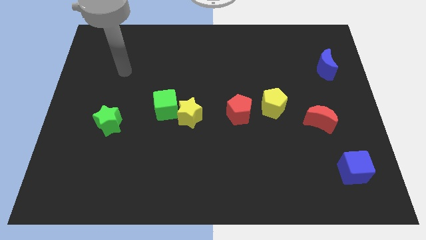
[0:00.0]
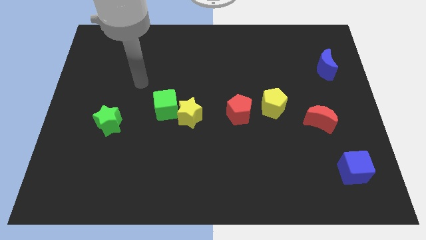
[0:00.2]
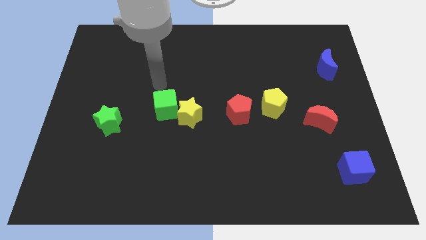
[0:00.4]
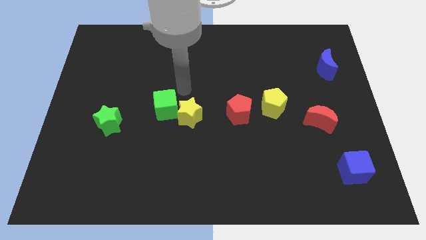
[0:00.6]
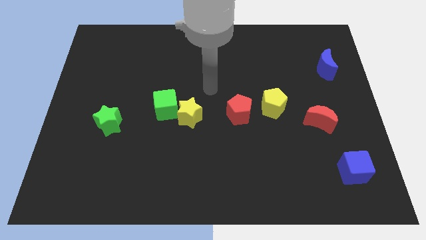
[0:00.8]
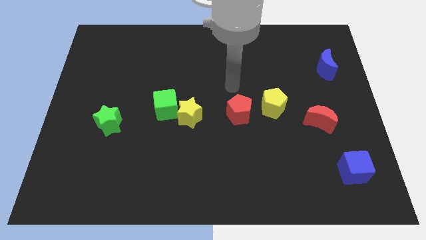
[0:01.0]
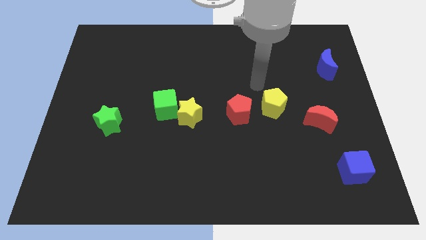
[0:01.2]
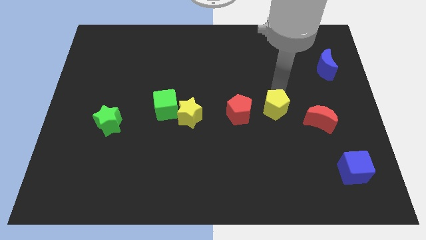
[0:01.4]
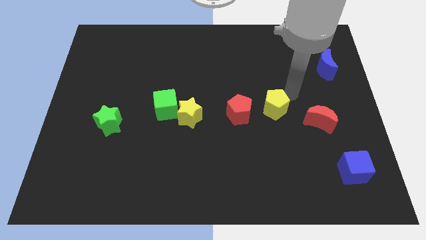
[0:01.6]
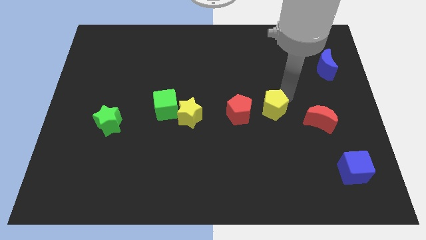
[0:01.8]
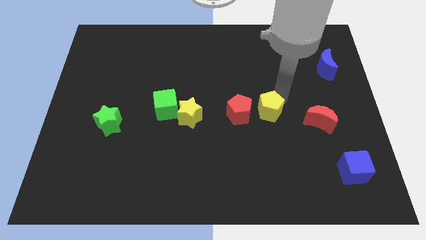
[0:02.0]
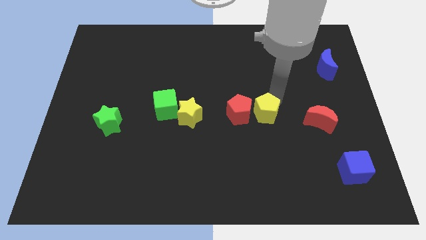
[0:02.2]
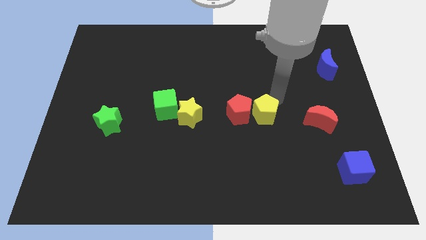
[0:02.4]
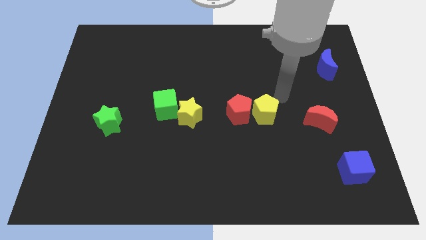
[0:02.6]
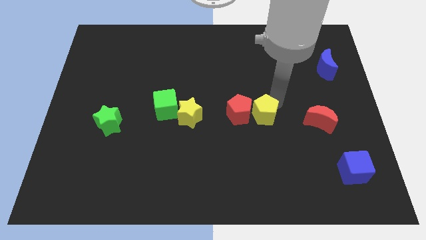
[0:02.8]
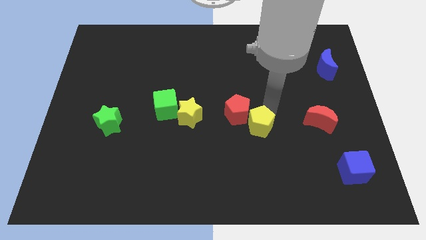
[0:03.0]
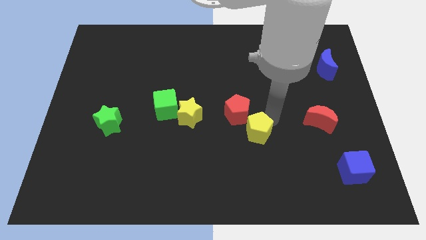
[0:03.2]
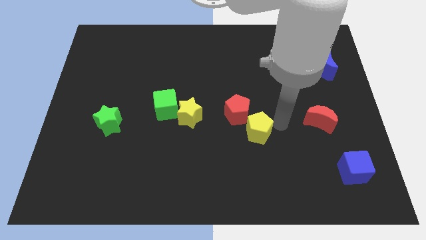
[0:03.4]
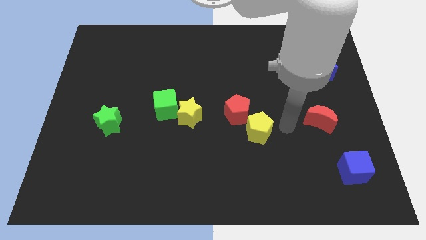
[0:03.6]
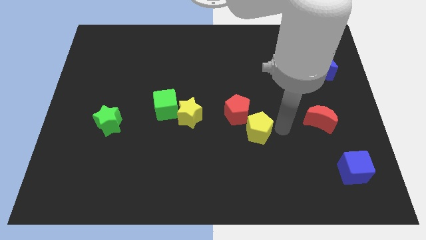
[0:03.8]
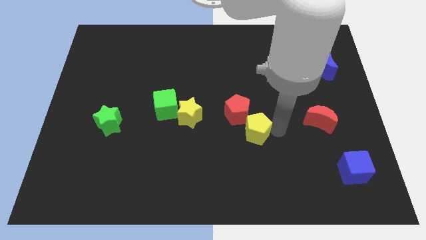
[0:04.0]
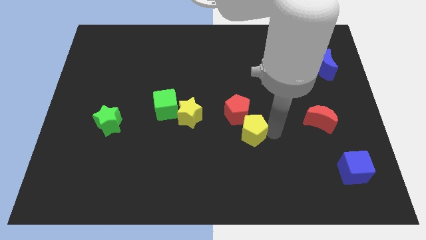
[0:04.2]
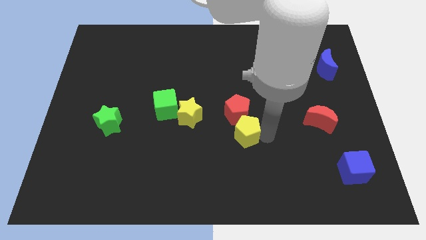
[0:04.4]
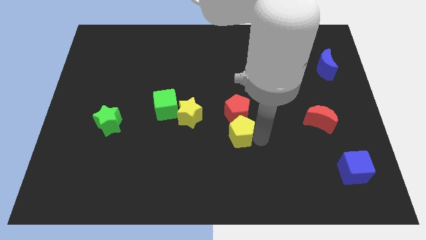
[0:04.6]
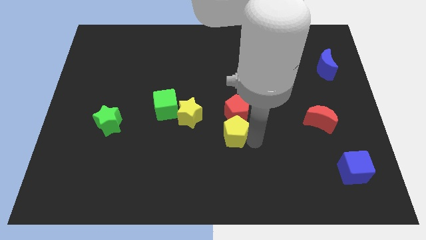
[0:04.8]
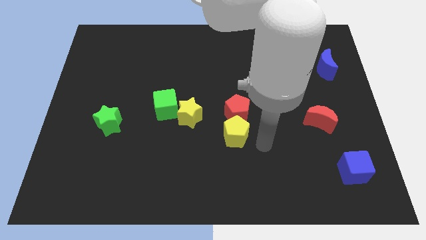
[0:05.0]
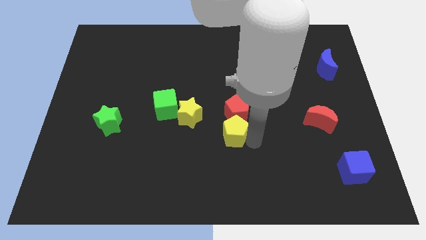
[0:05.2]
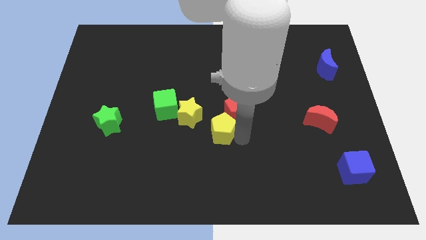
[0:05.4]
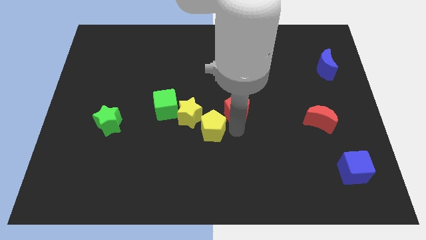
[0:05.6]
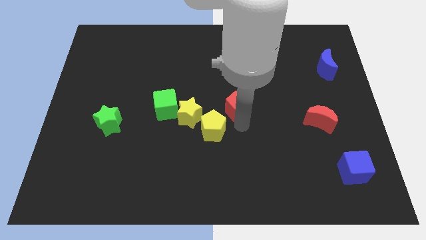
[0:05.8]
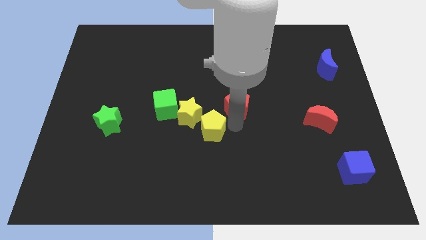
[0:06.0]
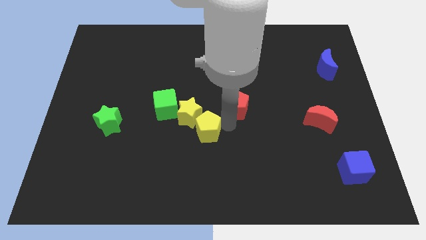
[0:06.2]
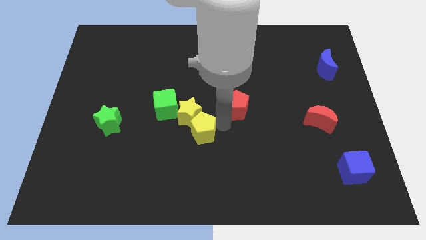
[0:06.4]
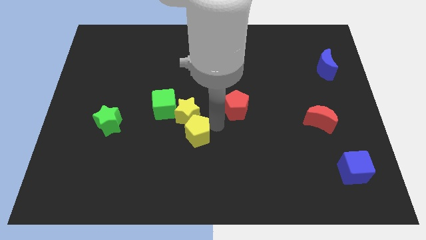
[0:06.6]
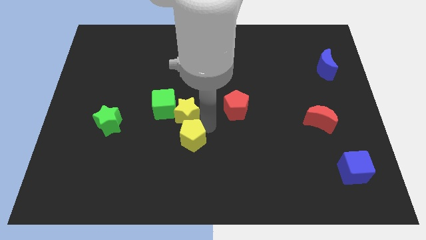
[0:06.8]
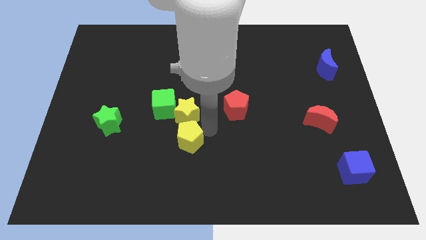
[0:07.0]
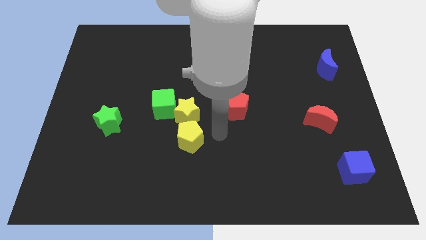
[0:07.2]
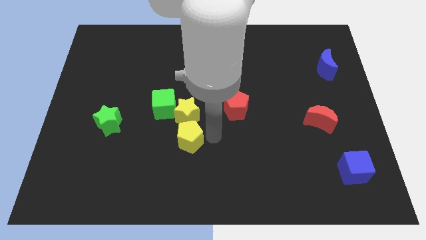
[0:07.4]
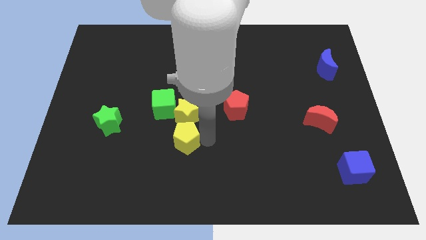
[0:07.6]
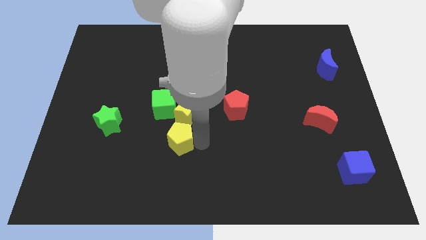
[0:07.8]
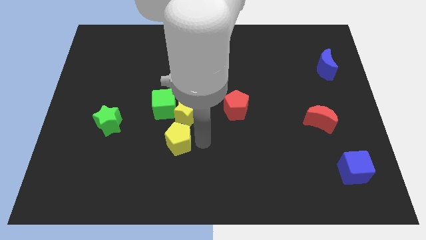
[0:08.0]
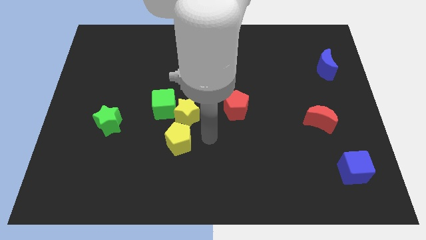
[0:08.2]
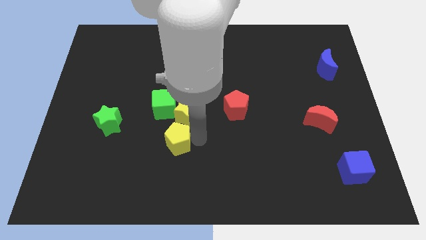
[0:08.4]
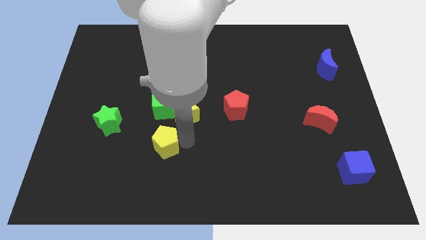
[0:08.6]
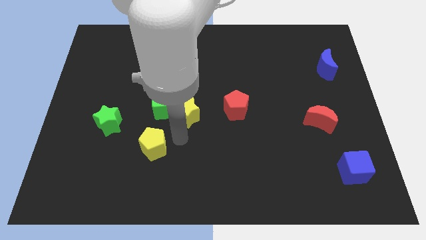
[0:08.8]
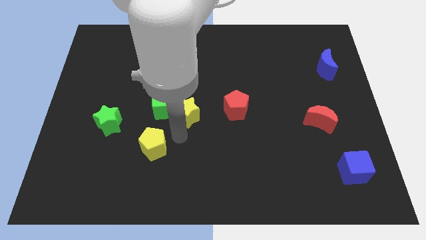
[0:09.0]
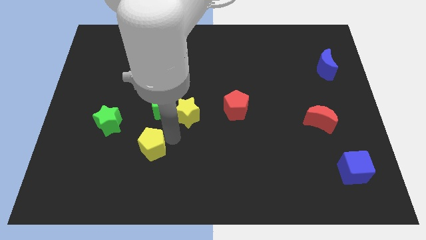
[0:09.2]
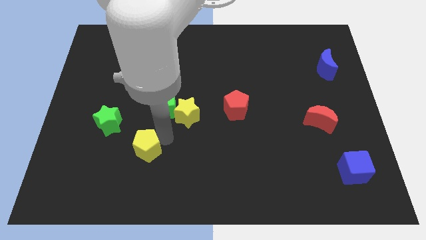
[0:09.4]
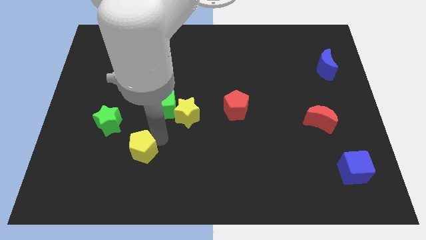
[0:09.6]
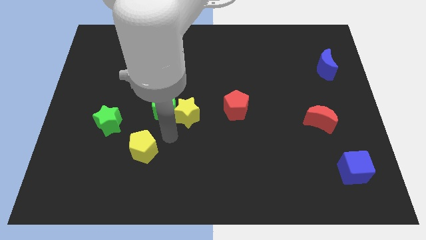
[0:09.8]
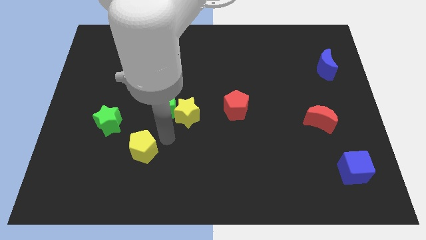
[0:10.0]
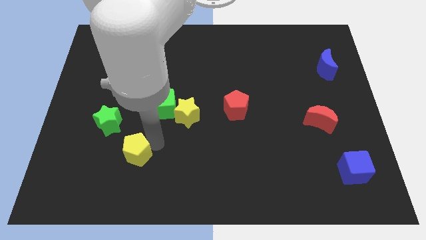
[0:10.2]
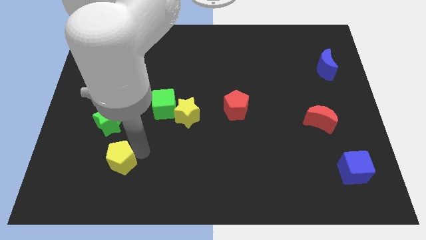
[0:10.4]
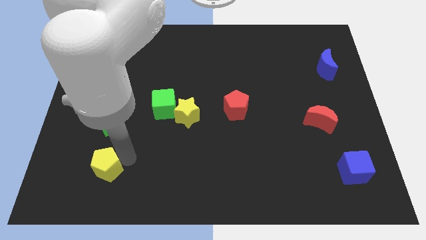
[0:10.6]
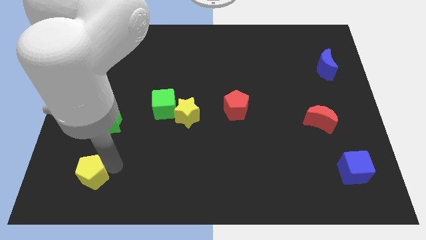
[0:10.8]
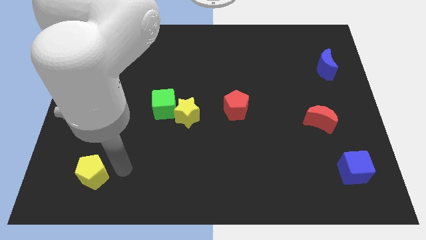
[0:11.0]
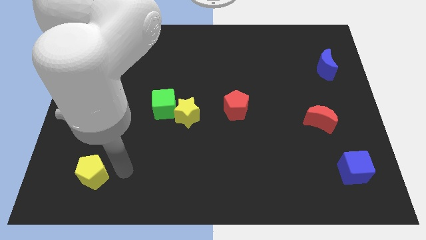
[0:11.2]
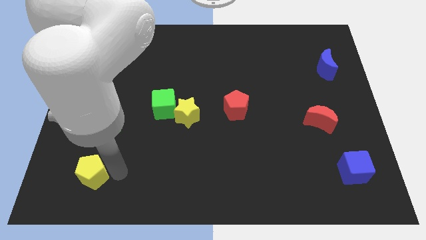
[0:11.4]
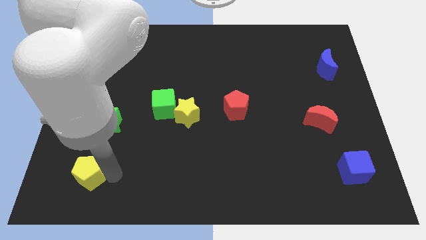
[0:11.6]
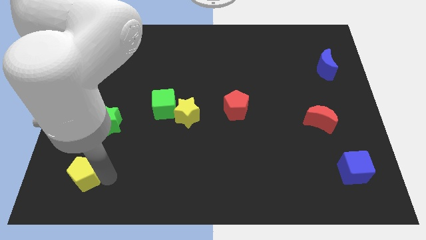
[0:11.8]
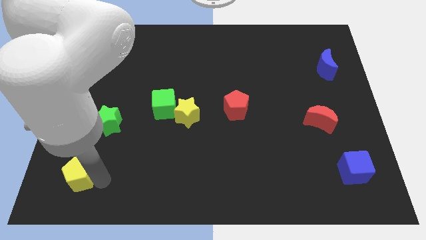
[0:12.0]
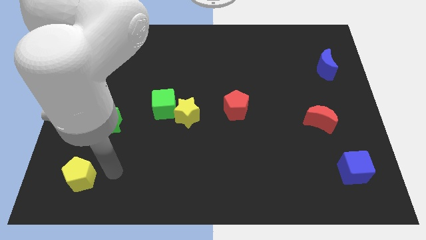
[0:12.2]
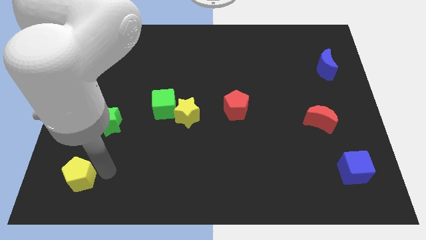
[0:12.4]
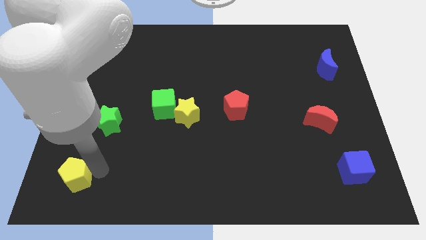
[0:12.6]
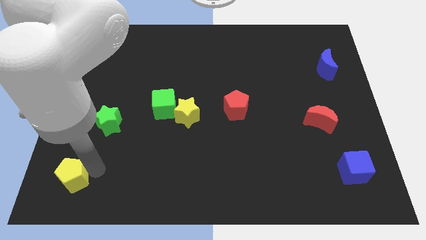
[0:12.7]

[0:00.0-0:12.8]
push the yellow pentagon to the bottom left corner

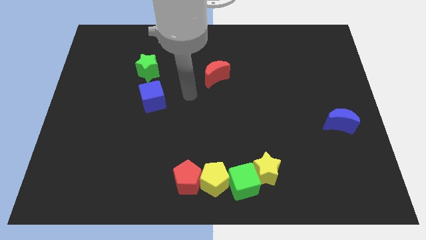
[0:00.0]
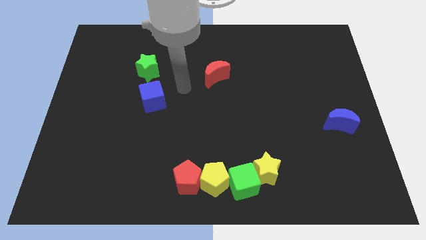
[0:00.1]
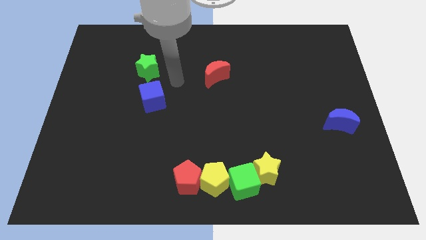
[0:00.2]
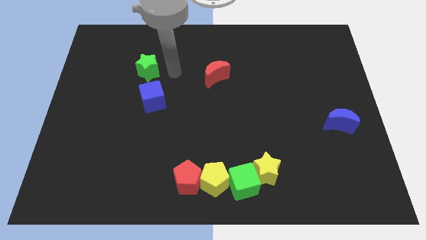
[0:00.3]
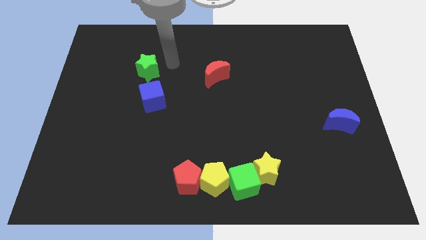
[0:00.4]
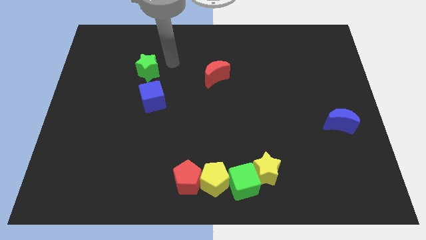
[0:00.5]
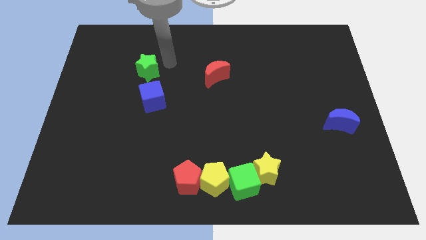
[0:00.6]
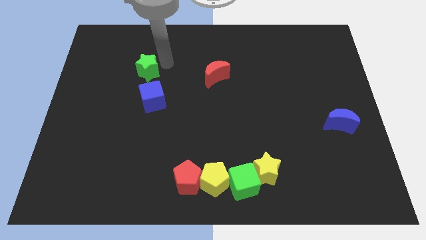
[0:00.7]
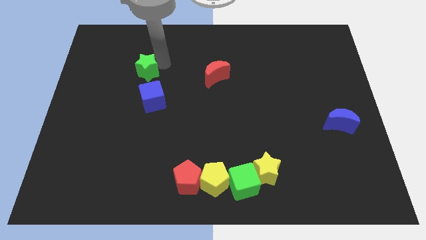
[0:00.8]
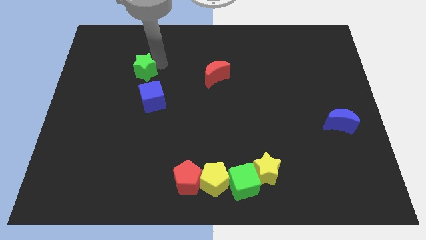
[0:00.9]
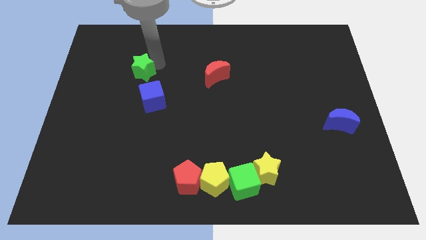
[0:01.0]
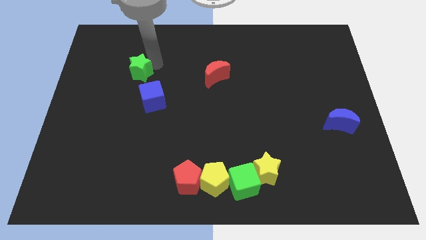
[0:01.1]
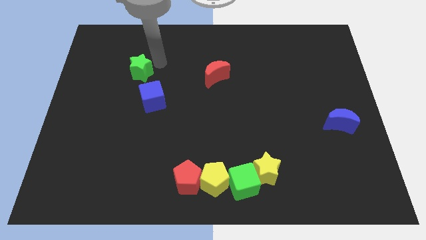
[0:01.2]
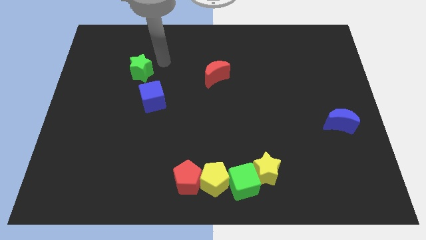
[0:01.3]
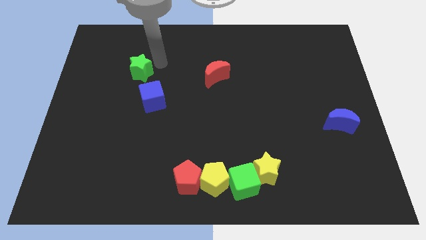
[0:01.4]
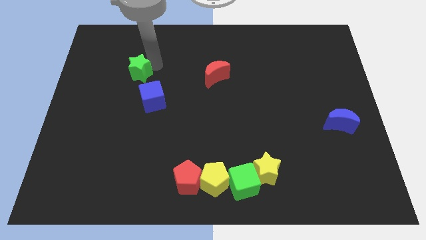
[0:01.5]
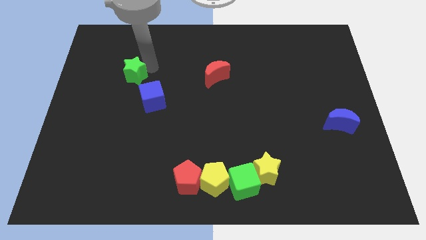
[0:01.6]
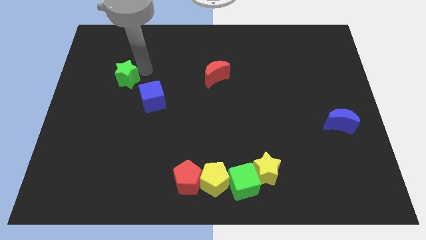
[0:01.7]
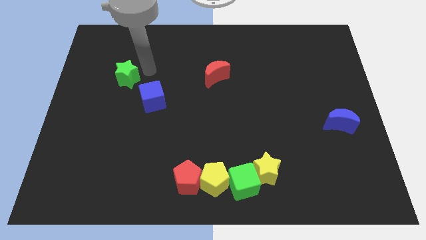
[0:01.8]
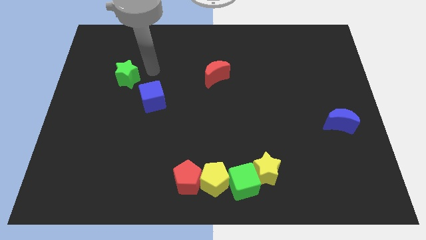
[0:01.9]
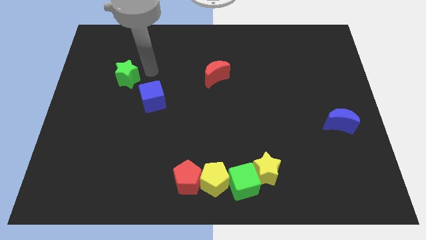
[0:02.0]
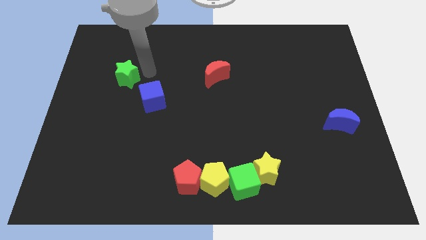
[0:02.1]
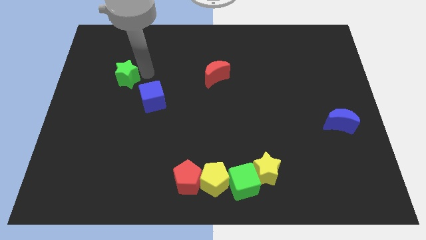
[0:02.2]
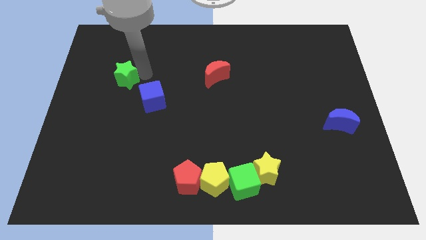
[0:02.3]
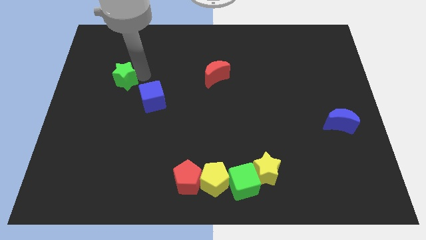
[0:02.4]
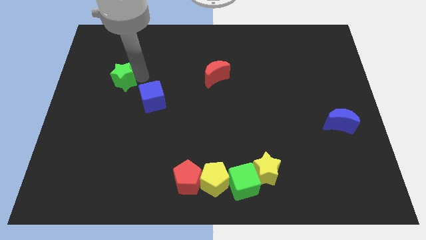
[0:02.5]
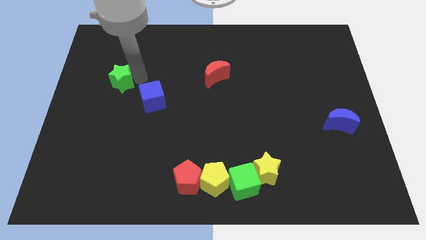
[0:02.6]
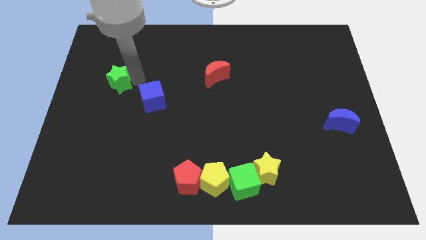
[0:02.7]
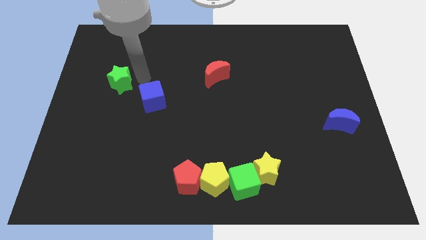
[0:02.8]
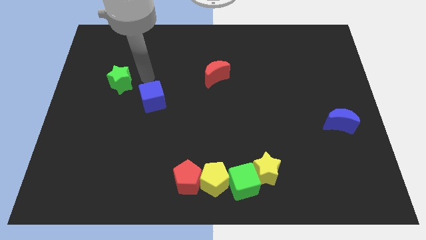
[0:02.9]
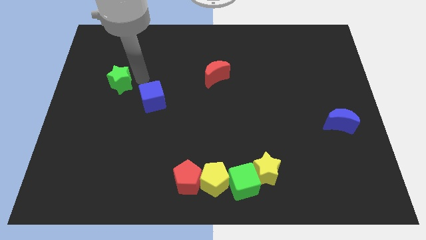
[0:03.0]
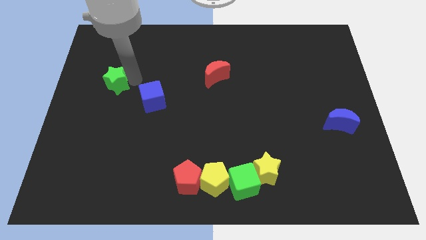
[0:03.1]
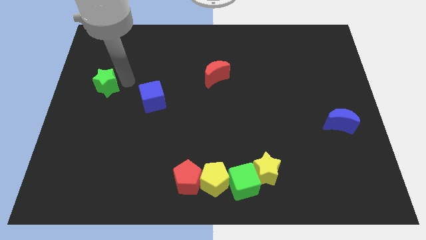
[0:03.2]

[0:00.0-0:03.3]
slide the green star to the left side
